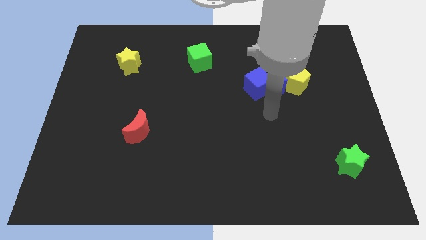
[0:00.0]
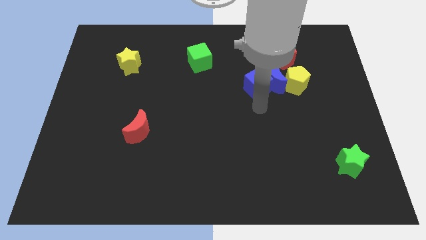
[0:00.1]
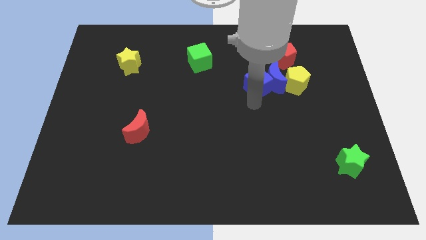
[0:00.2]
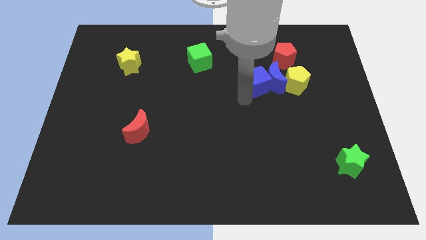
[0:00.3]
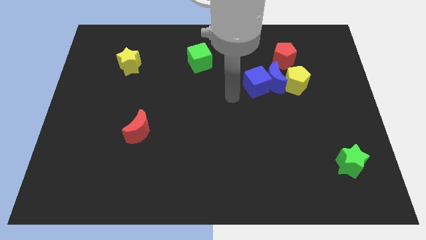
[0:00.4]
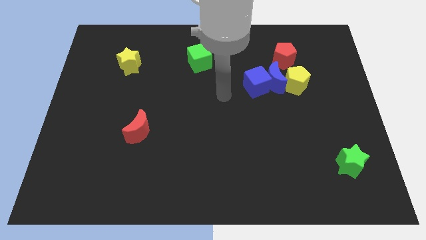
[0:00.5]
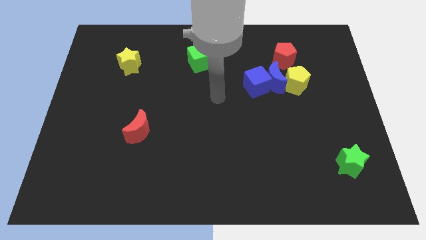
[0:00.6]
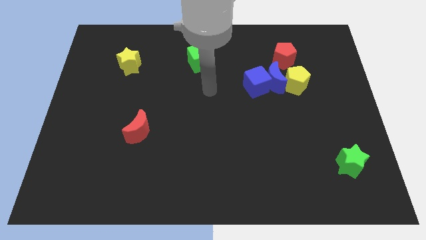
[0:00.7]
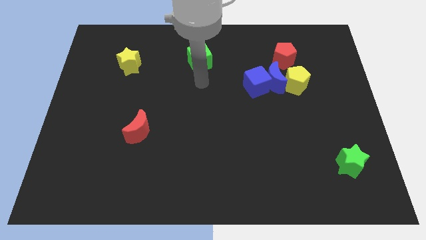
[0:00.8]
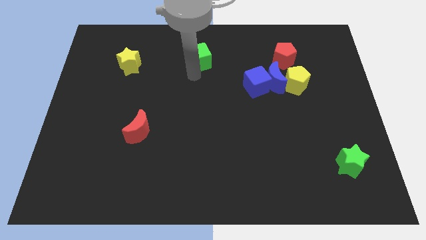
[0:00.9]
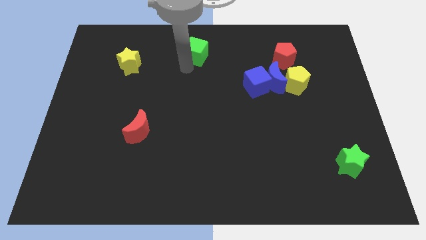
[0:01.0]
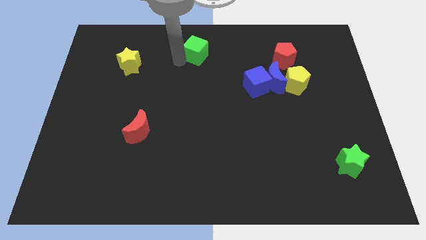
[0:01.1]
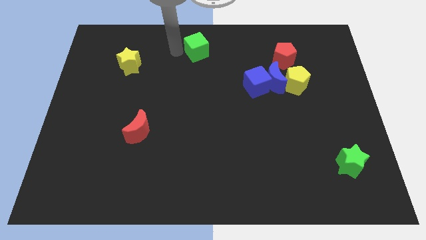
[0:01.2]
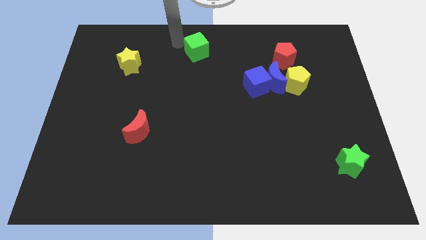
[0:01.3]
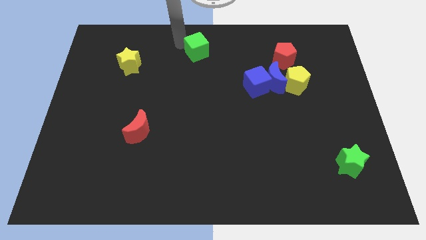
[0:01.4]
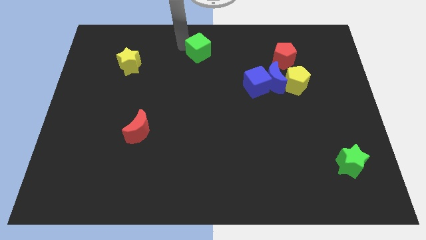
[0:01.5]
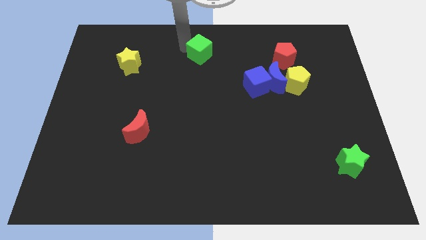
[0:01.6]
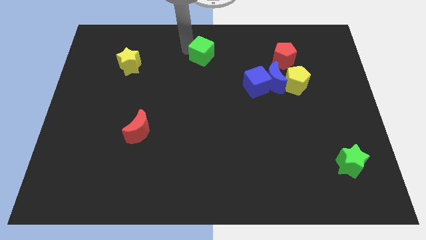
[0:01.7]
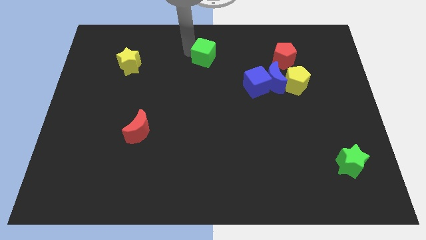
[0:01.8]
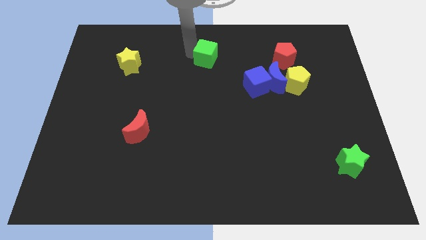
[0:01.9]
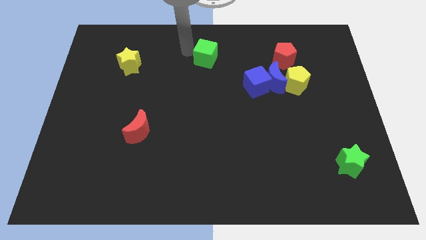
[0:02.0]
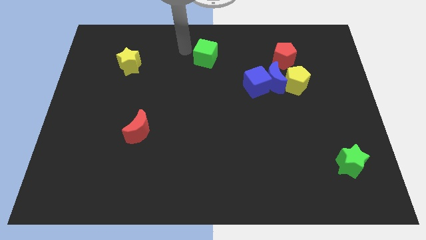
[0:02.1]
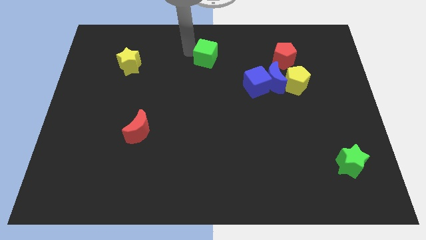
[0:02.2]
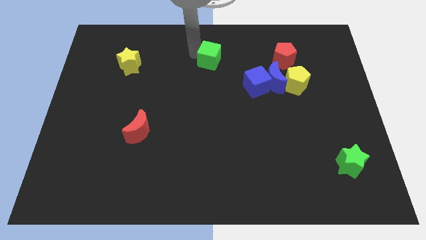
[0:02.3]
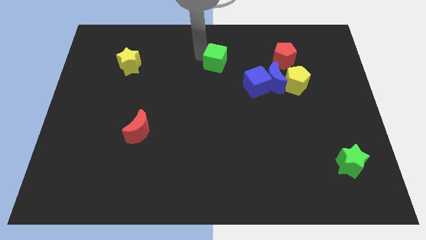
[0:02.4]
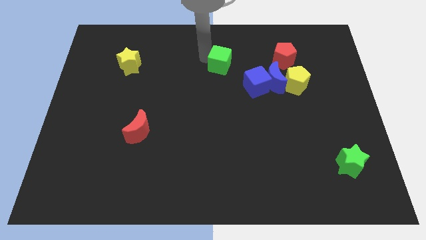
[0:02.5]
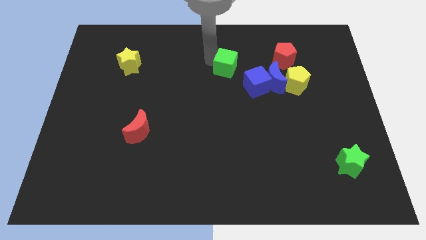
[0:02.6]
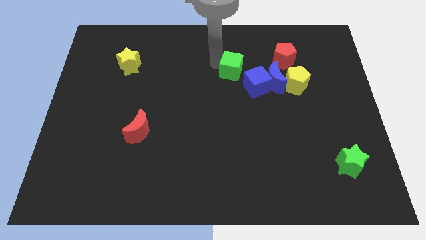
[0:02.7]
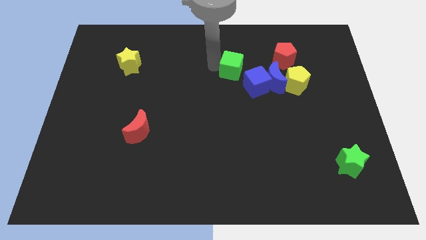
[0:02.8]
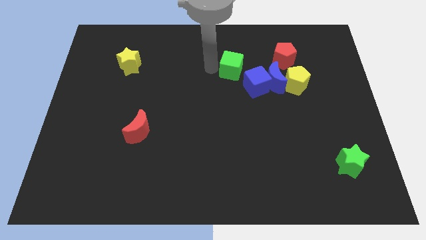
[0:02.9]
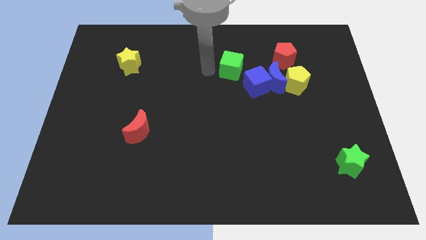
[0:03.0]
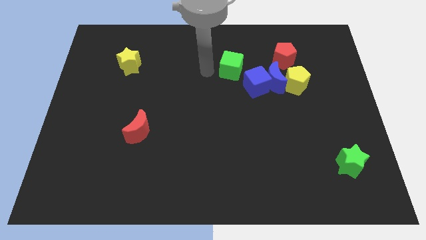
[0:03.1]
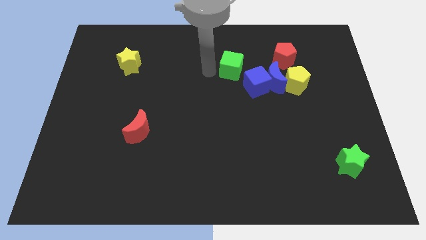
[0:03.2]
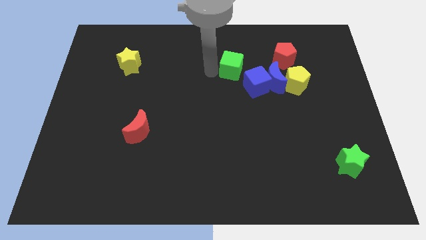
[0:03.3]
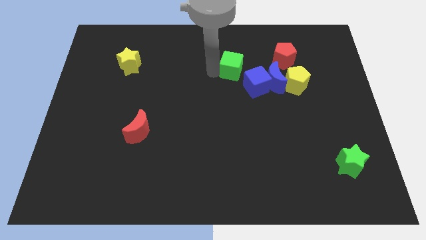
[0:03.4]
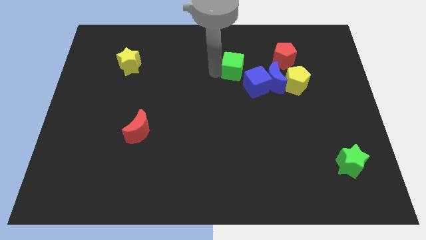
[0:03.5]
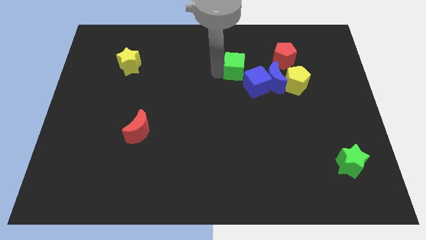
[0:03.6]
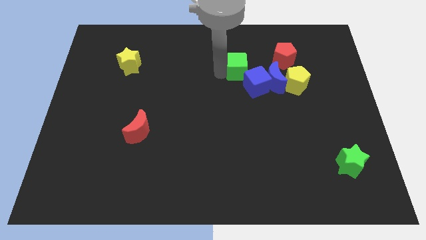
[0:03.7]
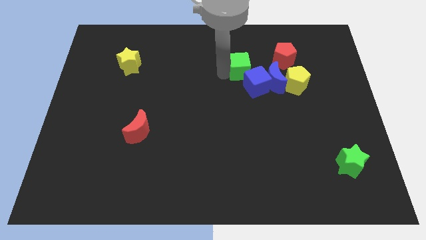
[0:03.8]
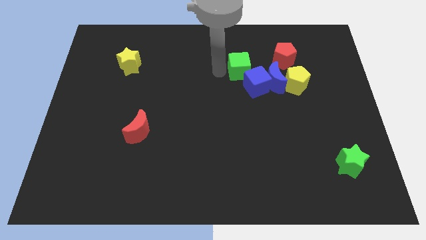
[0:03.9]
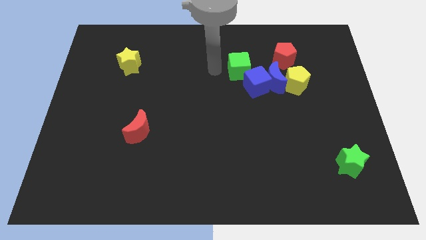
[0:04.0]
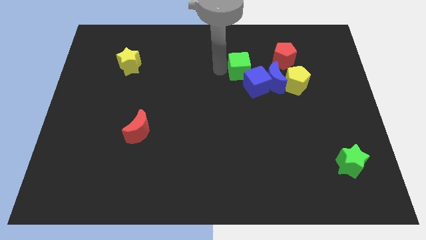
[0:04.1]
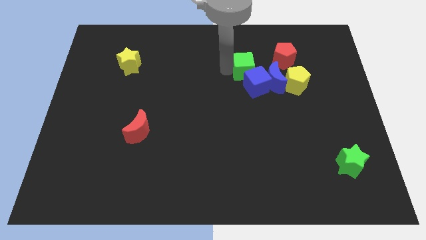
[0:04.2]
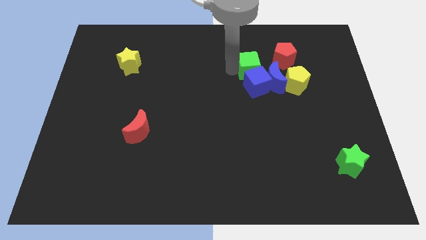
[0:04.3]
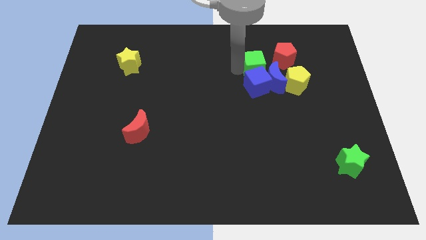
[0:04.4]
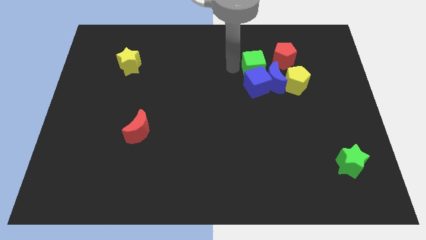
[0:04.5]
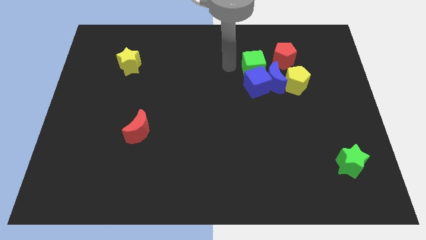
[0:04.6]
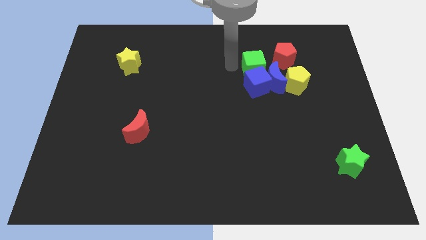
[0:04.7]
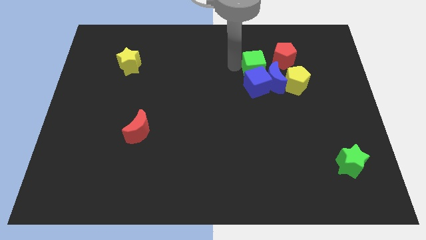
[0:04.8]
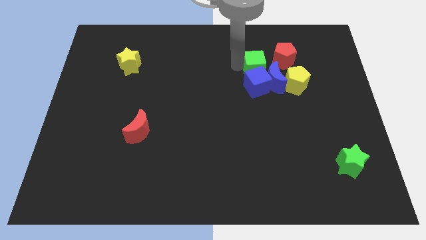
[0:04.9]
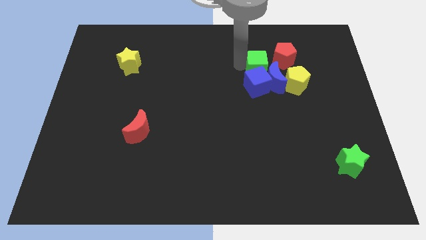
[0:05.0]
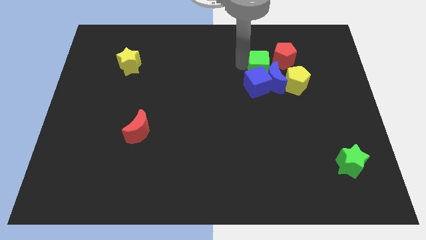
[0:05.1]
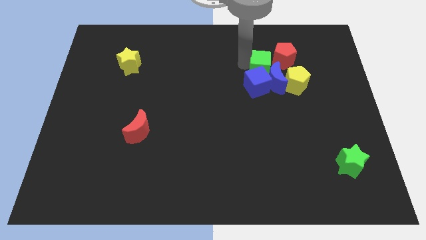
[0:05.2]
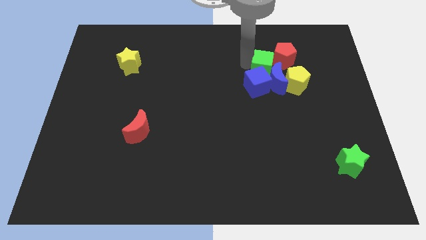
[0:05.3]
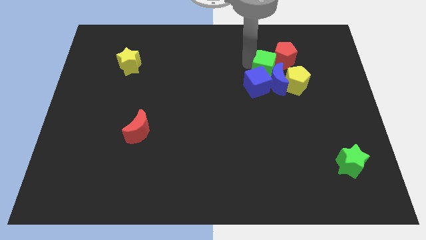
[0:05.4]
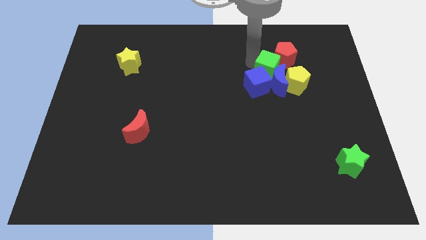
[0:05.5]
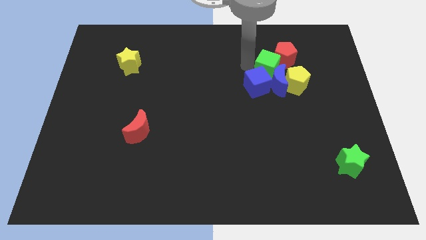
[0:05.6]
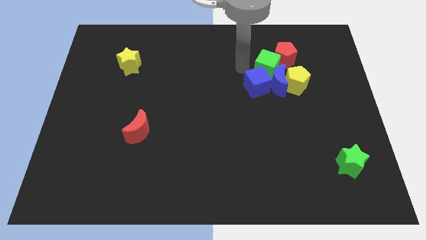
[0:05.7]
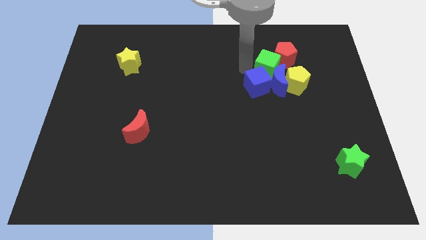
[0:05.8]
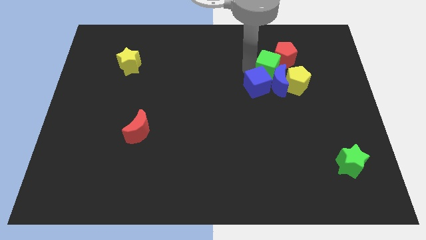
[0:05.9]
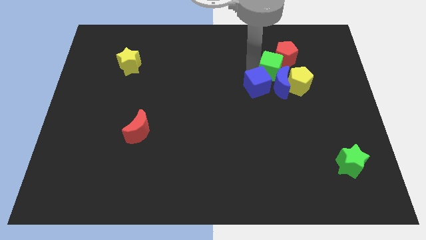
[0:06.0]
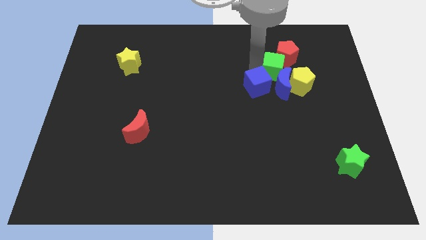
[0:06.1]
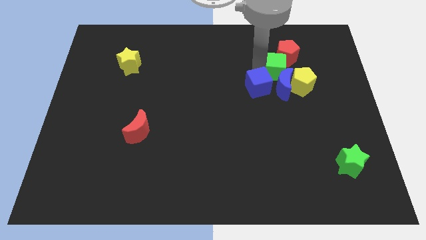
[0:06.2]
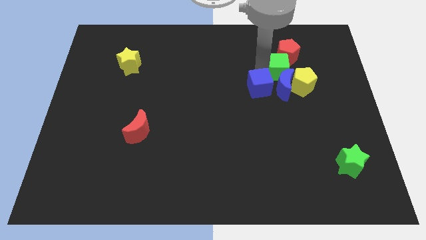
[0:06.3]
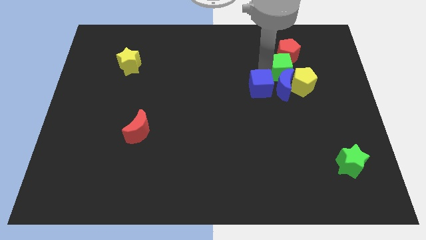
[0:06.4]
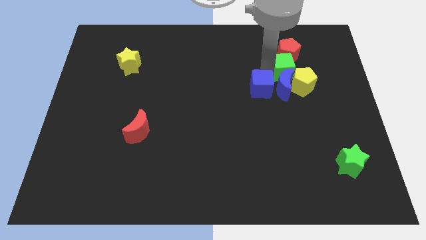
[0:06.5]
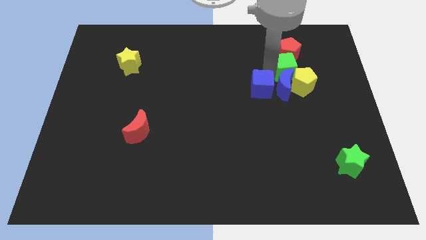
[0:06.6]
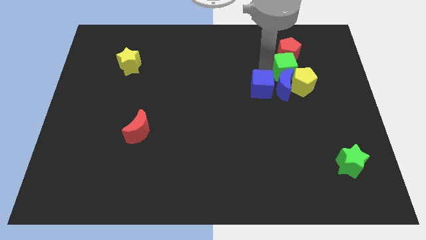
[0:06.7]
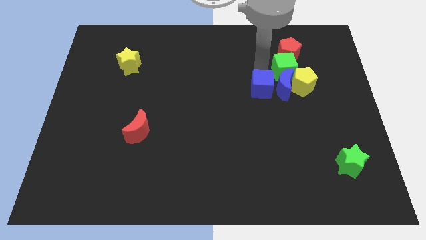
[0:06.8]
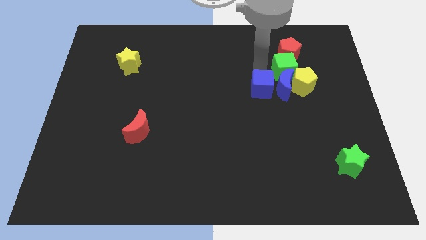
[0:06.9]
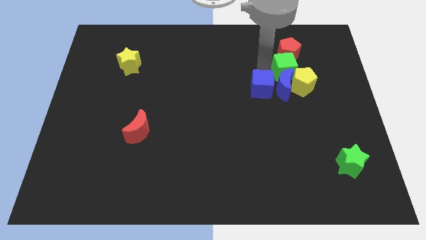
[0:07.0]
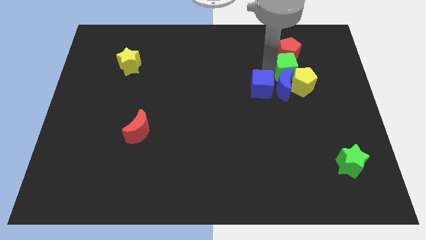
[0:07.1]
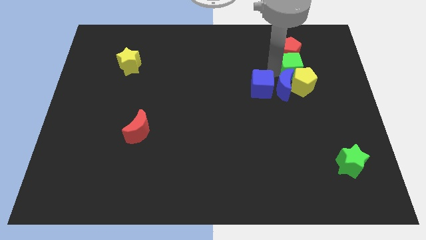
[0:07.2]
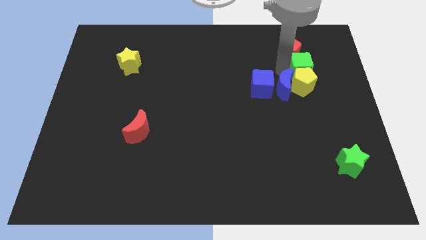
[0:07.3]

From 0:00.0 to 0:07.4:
put the green cube diagonally up and to the right of the yellow pentagon
